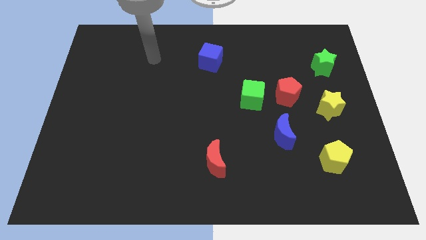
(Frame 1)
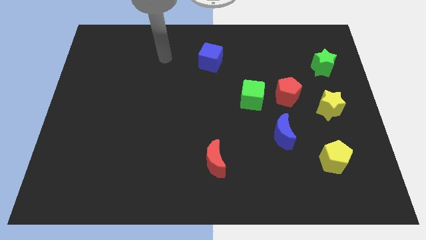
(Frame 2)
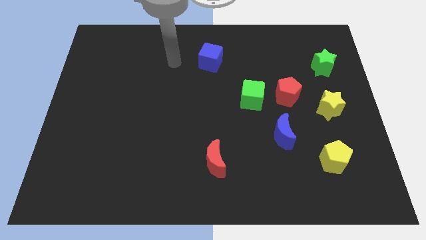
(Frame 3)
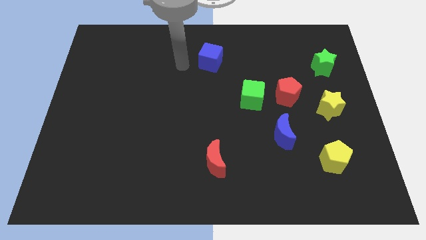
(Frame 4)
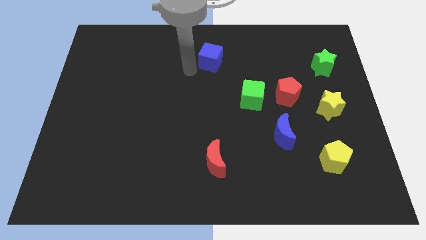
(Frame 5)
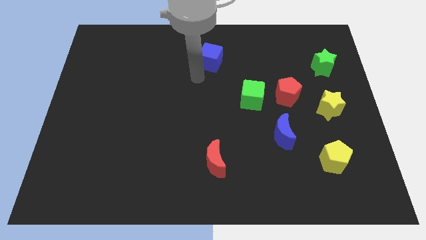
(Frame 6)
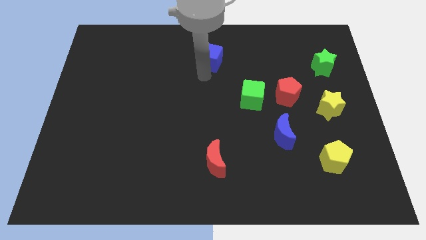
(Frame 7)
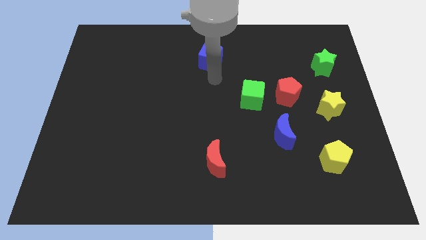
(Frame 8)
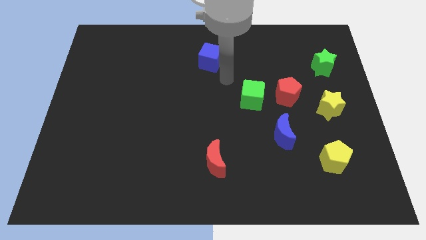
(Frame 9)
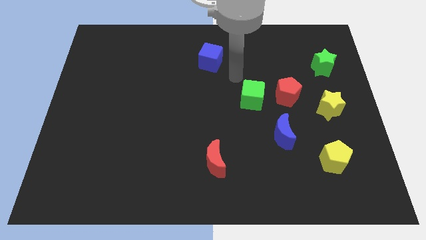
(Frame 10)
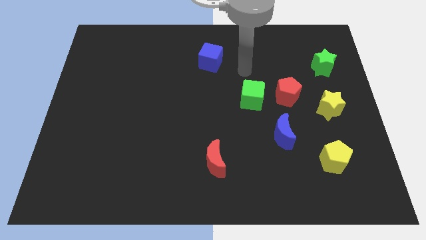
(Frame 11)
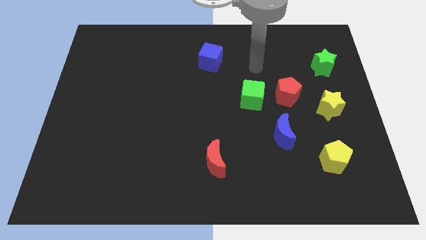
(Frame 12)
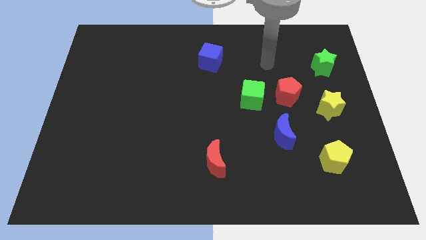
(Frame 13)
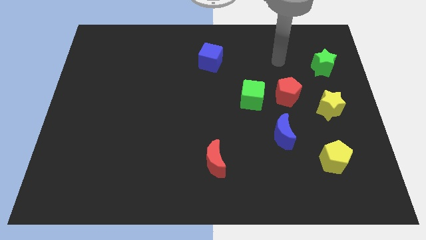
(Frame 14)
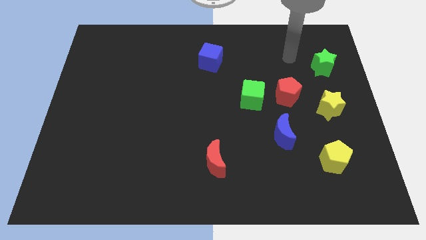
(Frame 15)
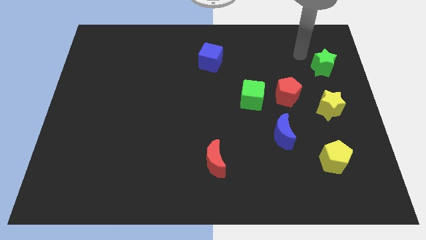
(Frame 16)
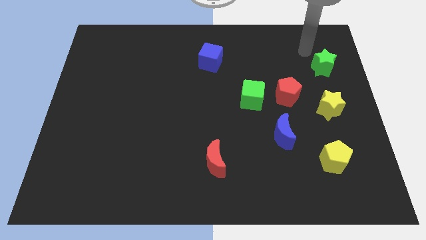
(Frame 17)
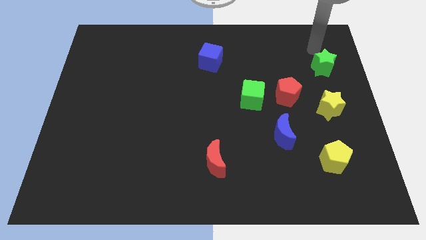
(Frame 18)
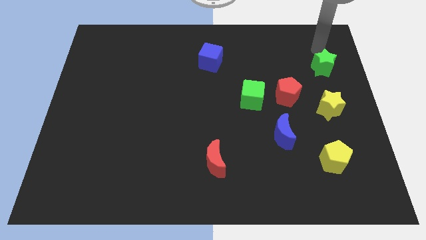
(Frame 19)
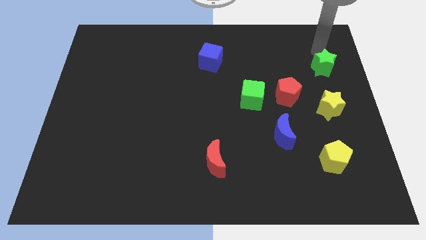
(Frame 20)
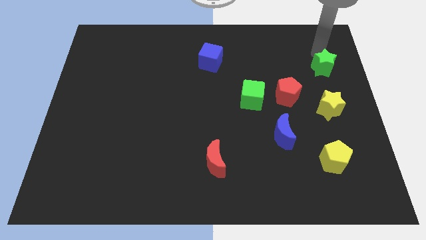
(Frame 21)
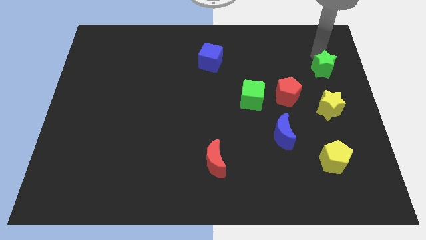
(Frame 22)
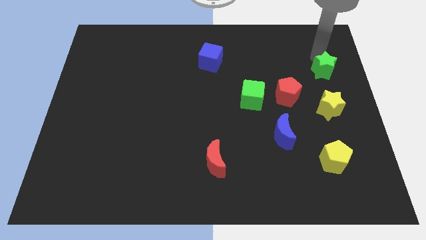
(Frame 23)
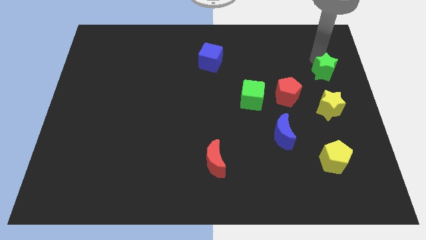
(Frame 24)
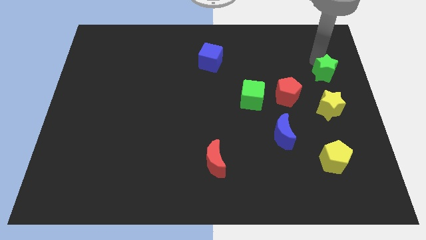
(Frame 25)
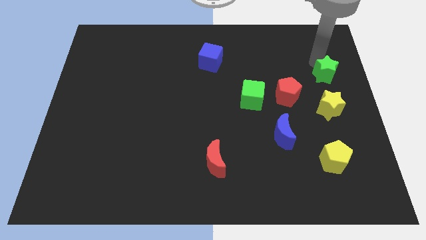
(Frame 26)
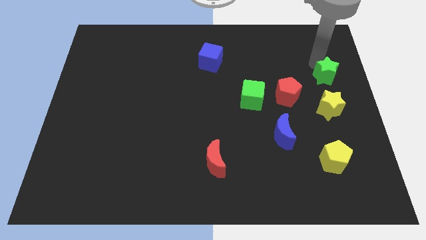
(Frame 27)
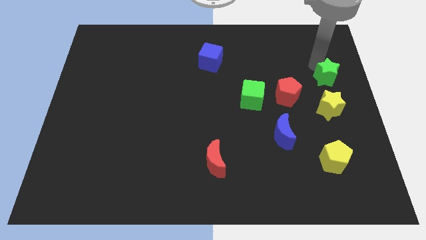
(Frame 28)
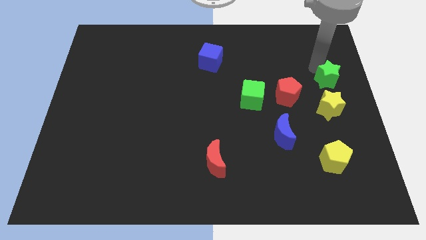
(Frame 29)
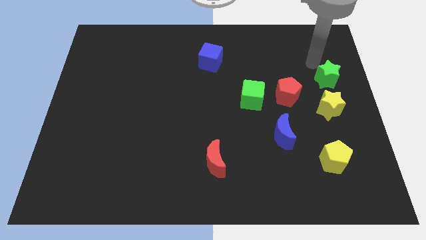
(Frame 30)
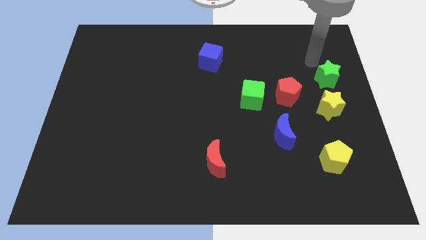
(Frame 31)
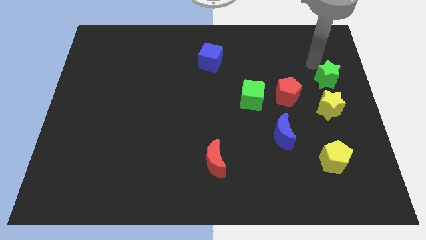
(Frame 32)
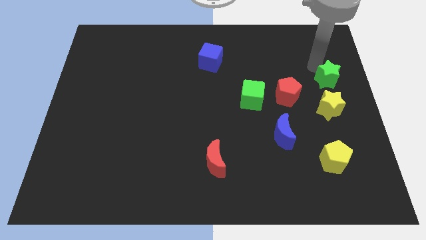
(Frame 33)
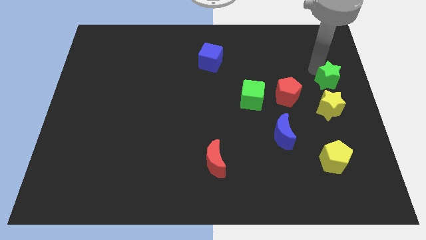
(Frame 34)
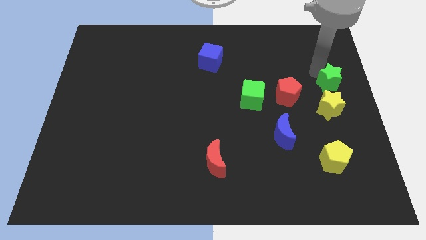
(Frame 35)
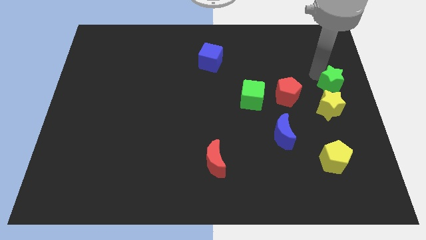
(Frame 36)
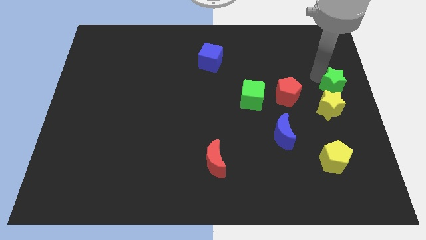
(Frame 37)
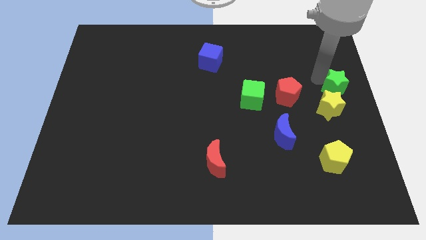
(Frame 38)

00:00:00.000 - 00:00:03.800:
slightly slide the green star downwards

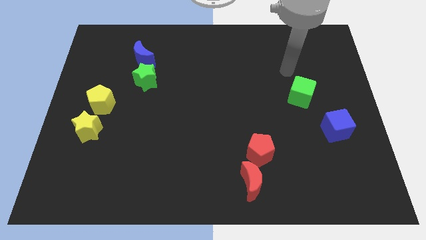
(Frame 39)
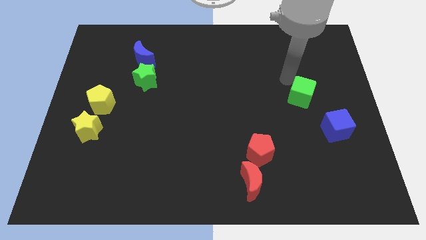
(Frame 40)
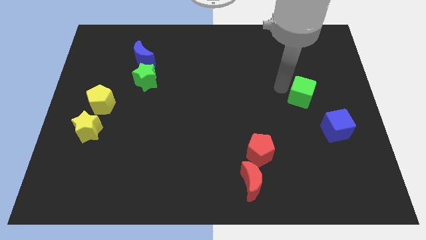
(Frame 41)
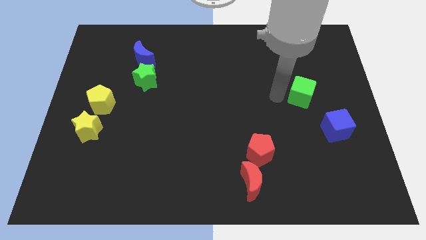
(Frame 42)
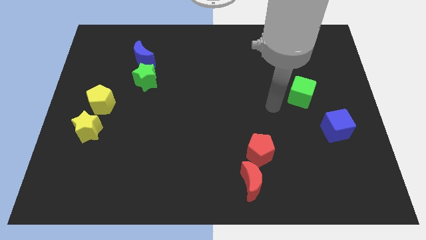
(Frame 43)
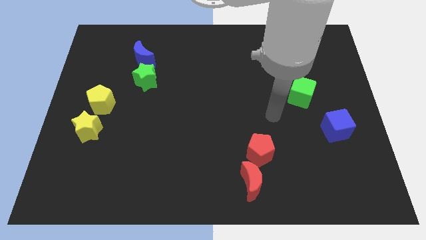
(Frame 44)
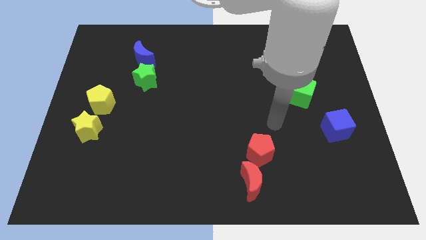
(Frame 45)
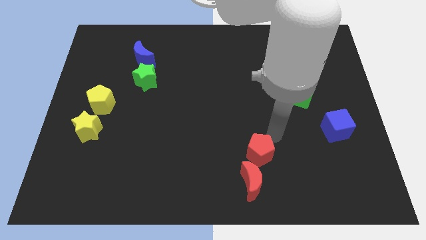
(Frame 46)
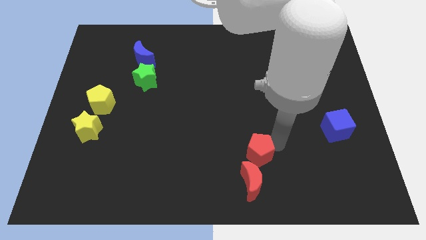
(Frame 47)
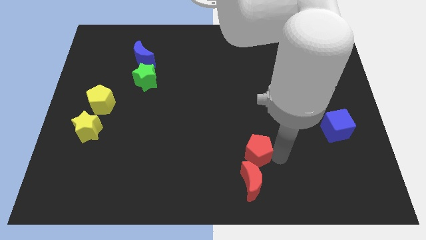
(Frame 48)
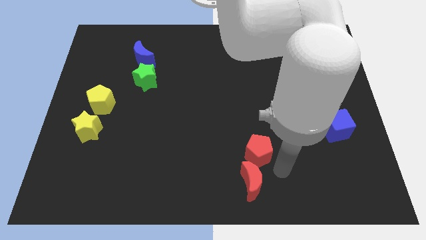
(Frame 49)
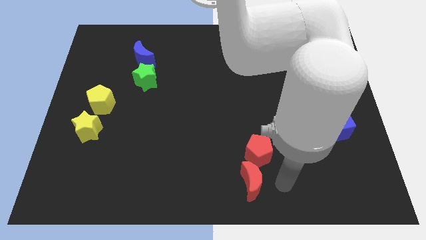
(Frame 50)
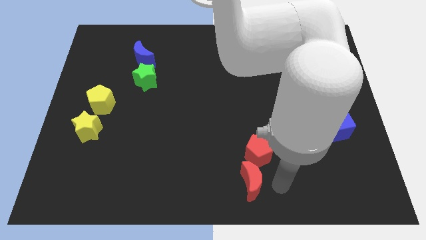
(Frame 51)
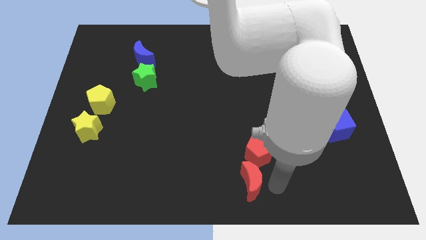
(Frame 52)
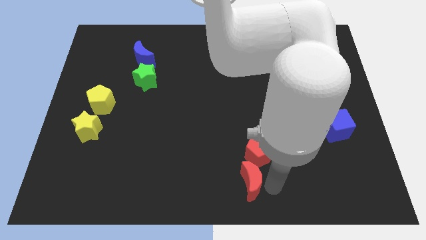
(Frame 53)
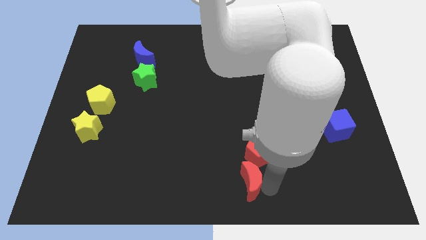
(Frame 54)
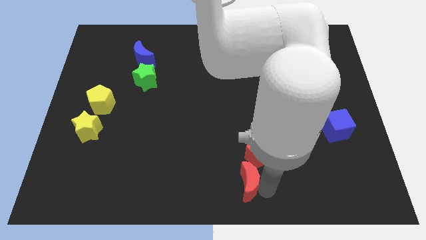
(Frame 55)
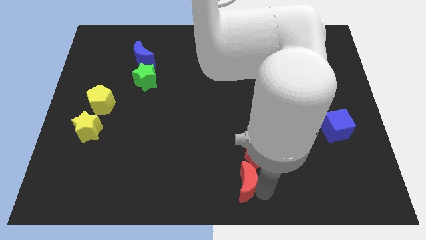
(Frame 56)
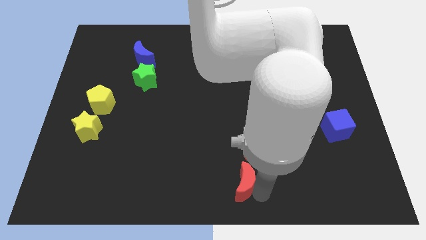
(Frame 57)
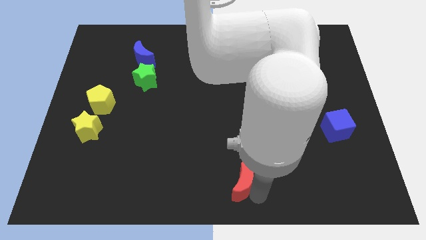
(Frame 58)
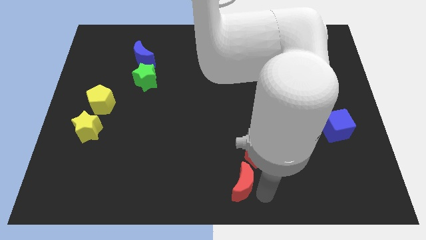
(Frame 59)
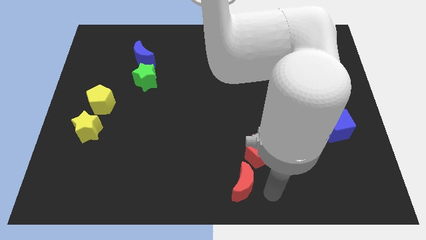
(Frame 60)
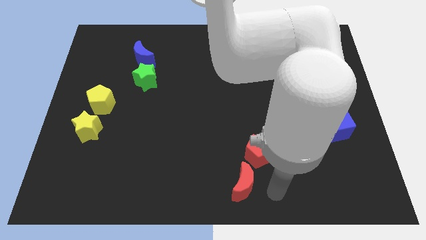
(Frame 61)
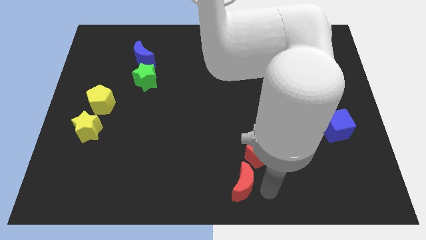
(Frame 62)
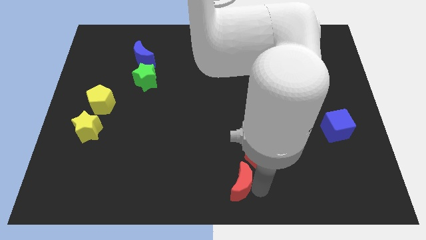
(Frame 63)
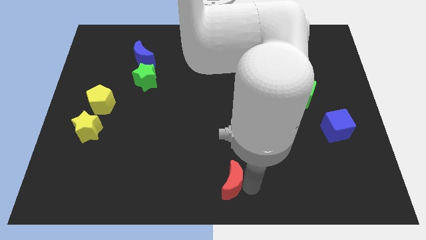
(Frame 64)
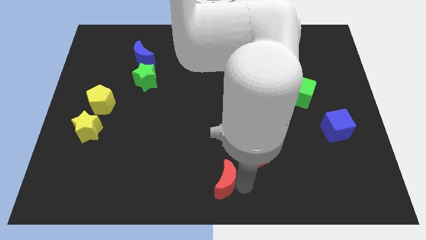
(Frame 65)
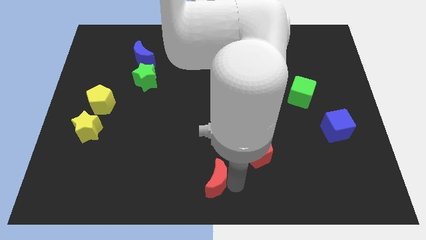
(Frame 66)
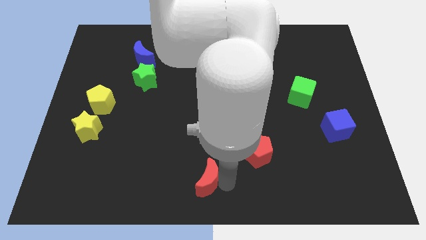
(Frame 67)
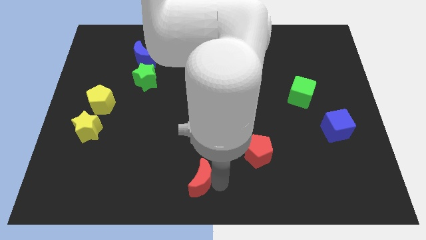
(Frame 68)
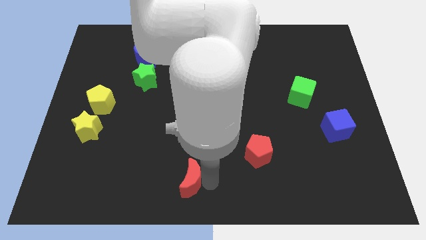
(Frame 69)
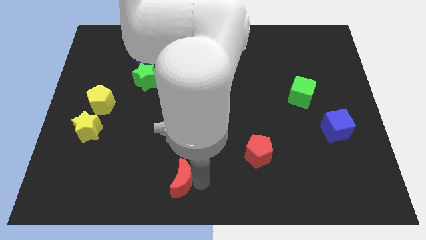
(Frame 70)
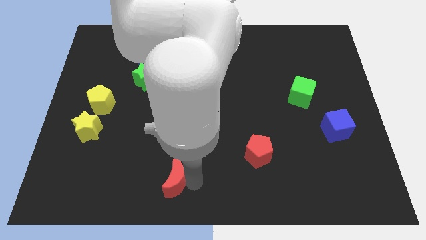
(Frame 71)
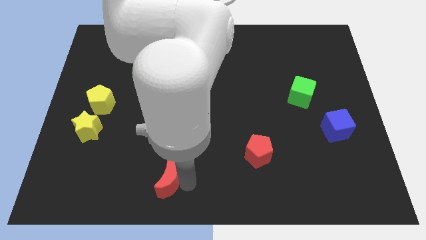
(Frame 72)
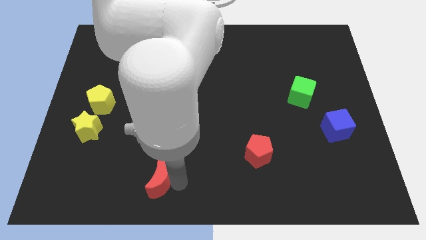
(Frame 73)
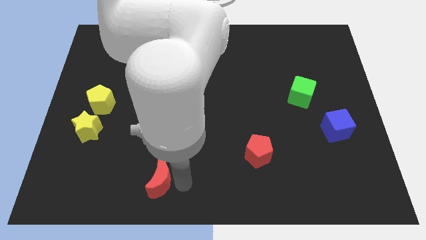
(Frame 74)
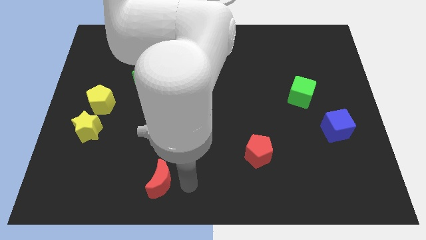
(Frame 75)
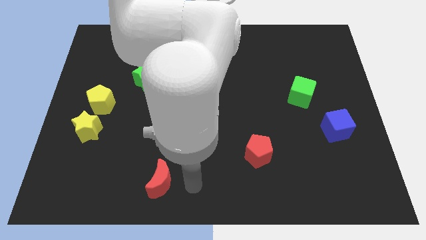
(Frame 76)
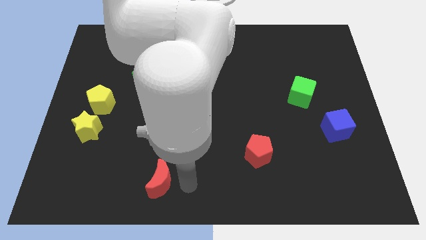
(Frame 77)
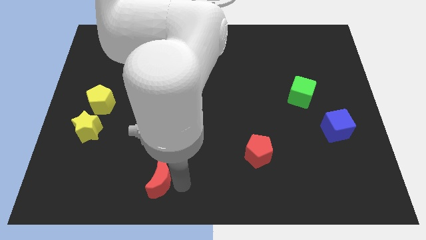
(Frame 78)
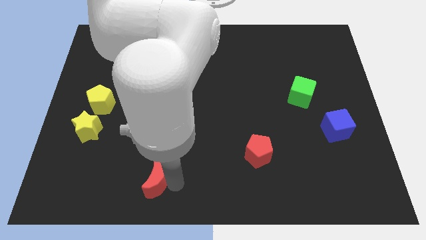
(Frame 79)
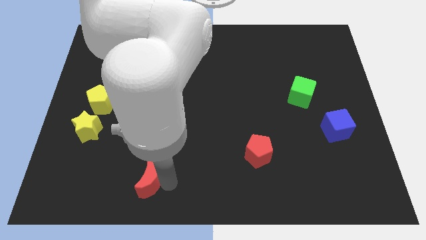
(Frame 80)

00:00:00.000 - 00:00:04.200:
push the red moon to the left
